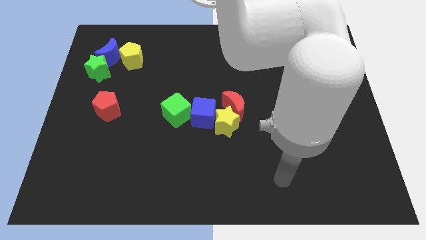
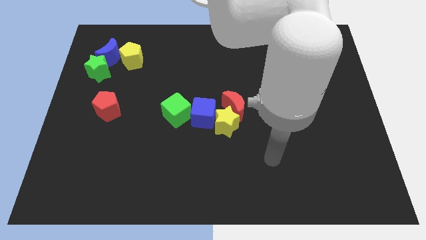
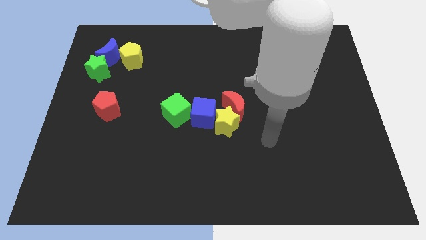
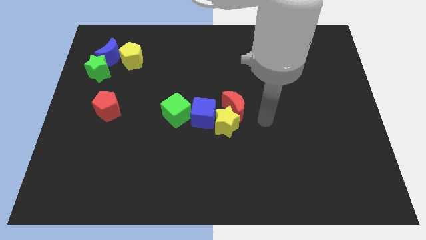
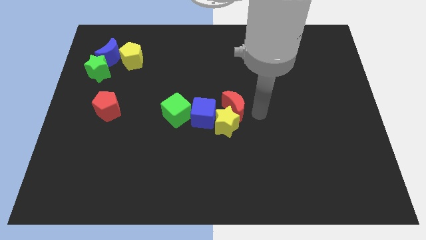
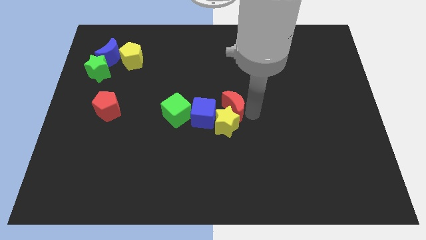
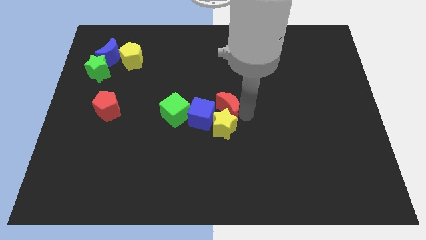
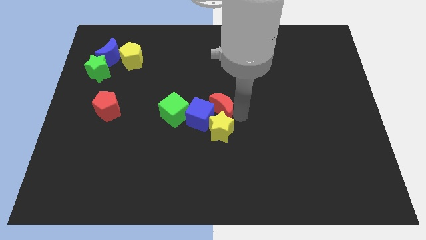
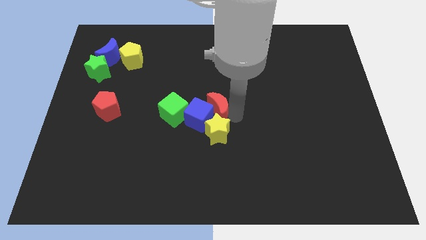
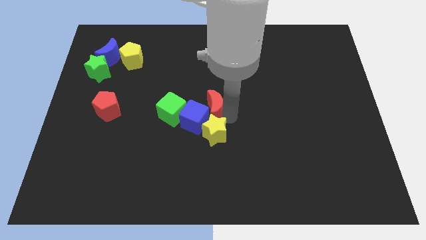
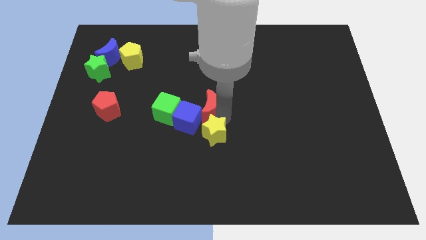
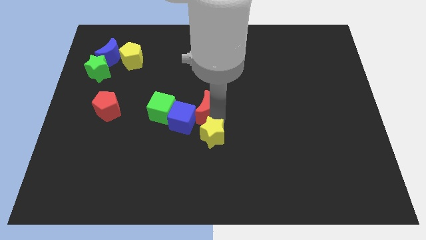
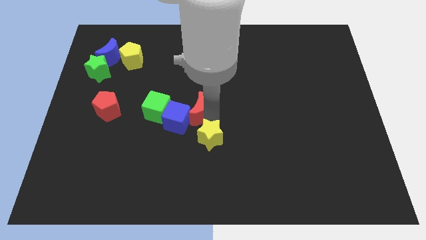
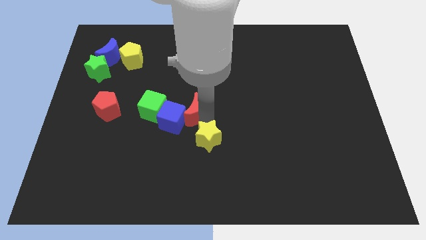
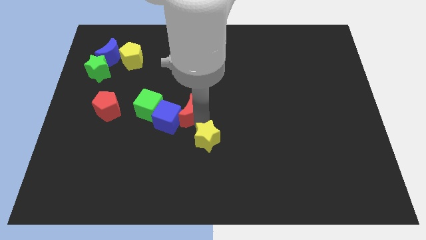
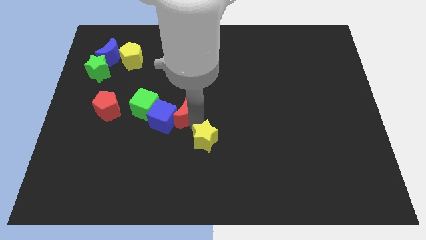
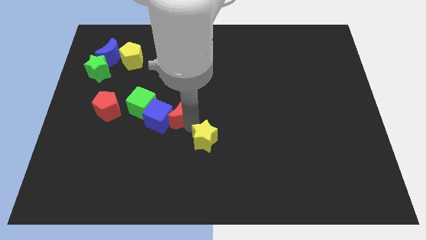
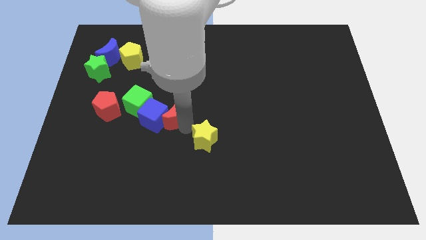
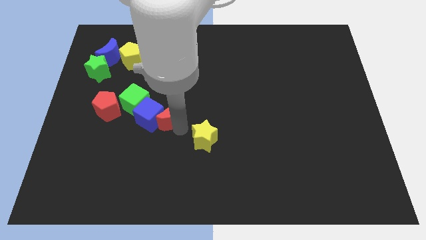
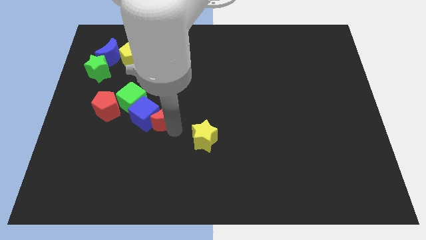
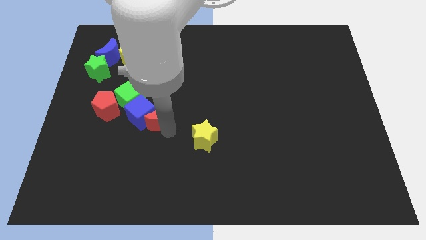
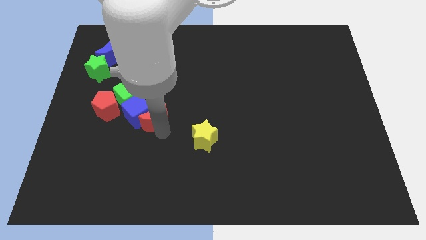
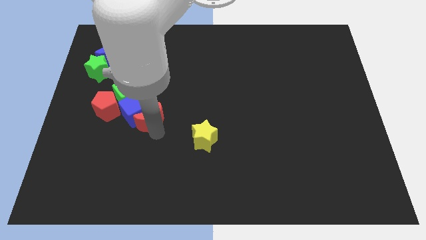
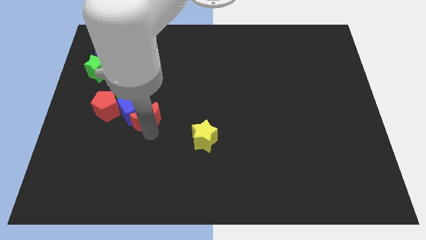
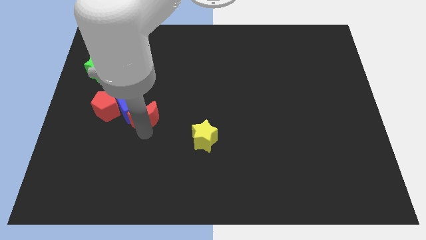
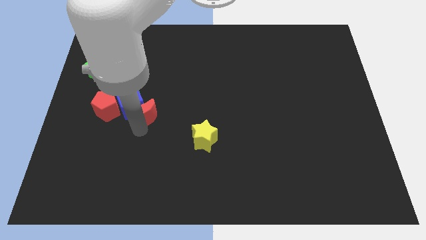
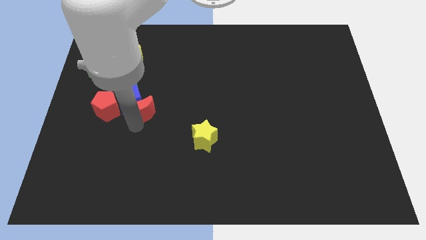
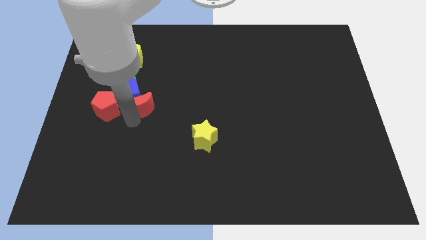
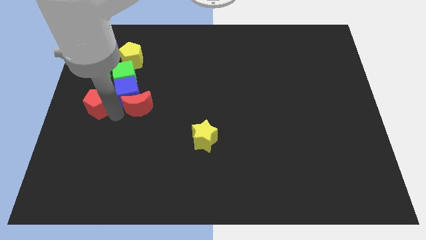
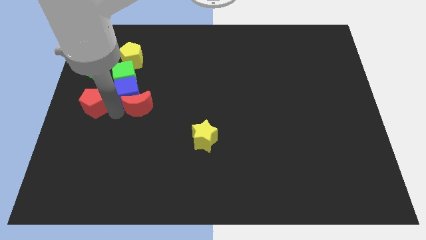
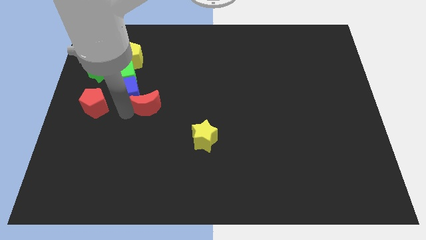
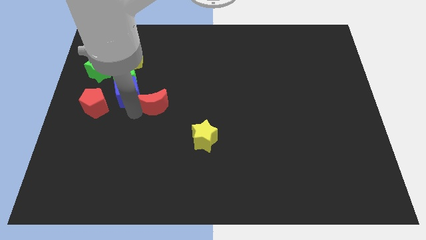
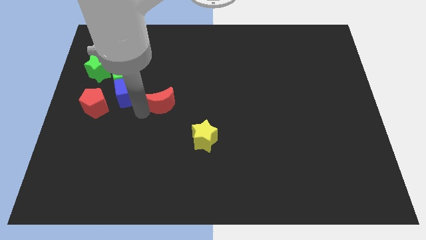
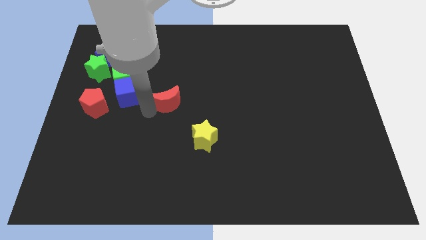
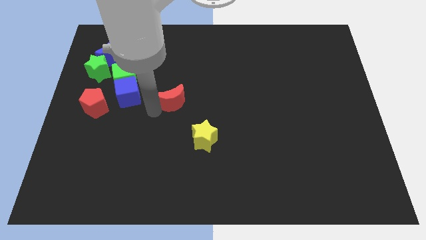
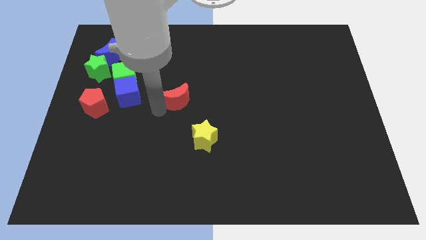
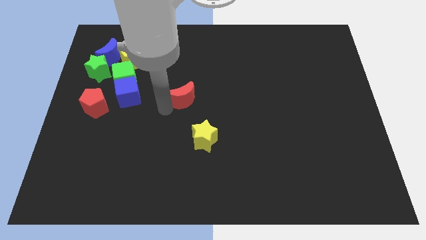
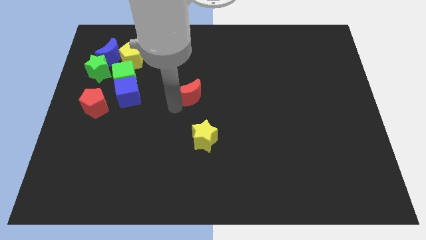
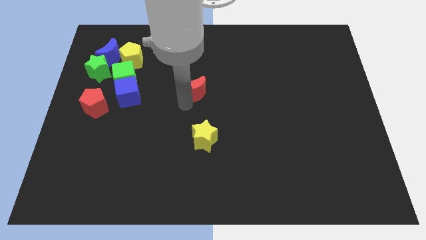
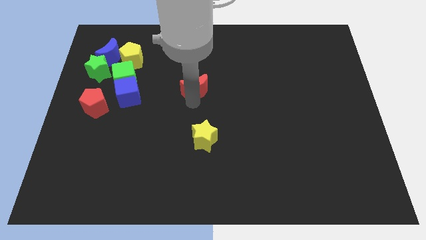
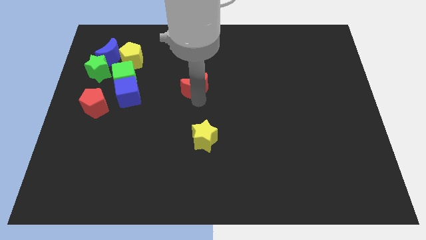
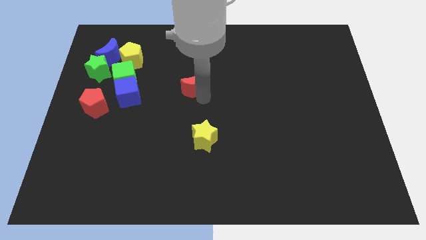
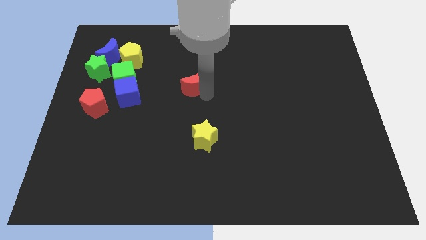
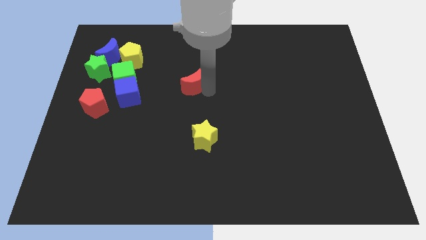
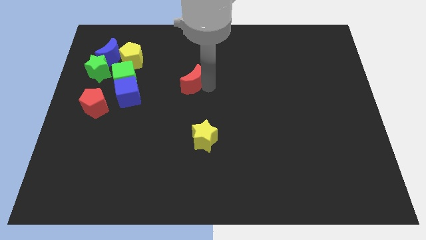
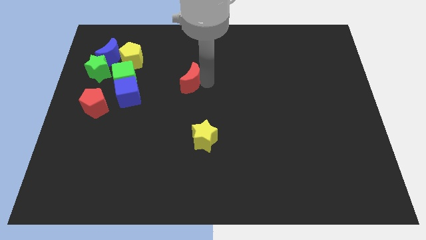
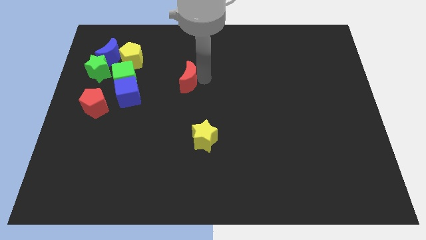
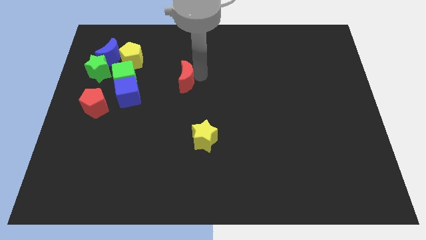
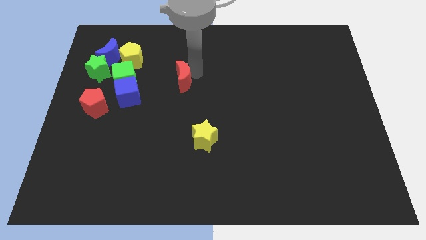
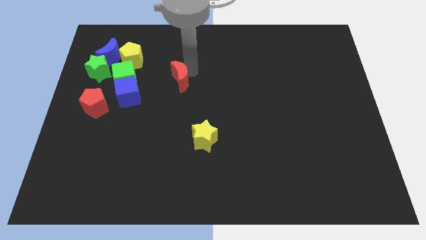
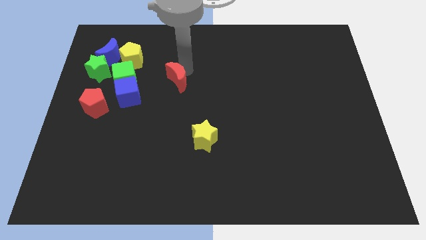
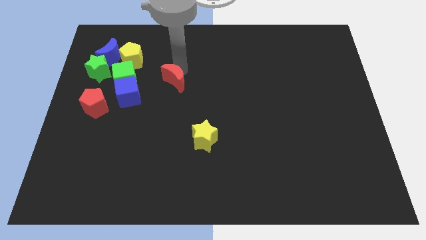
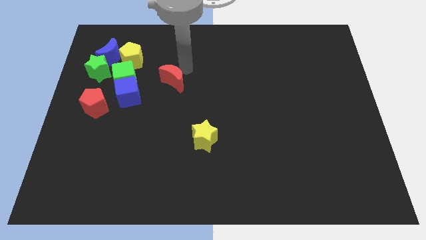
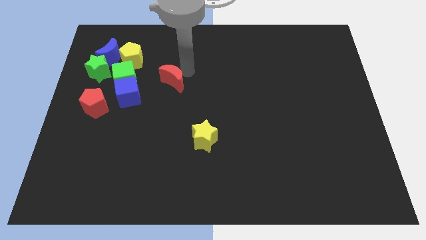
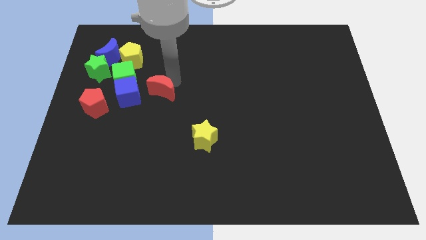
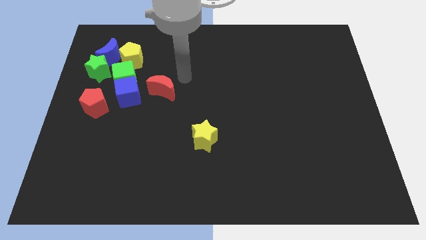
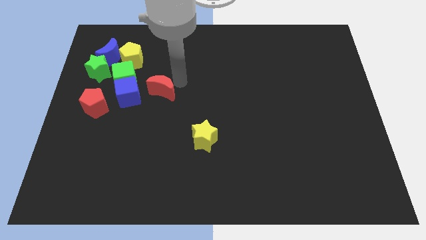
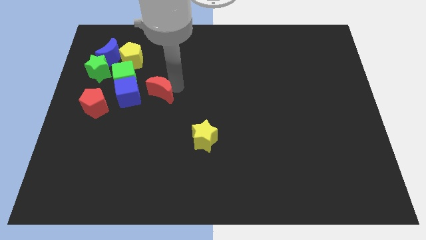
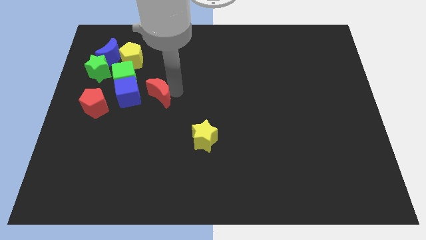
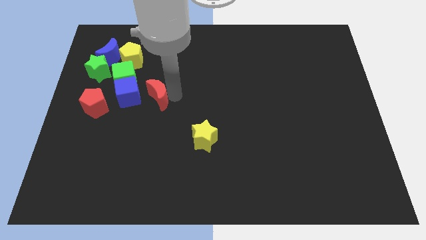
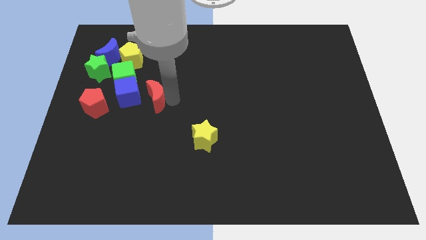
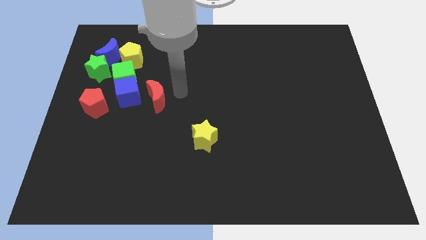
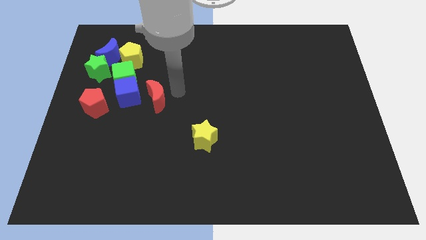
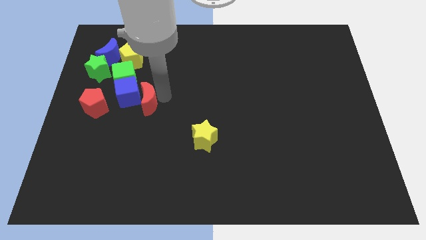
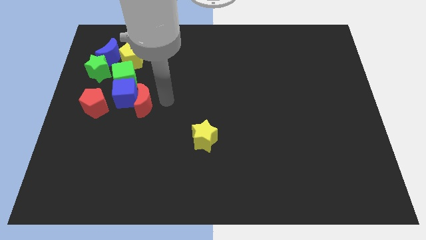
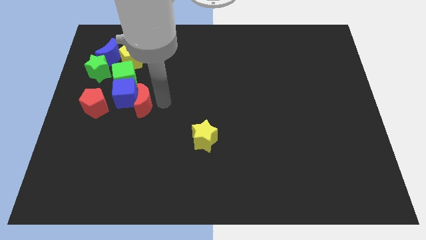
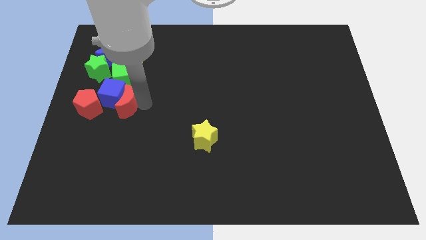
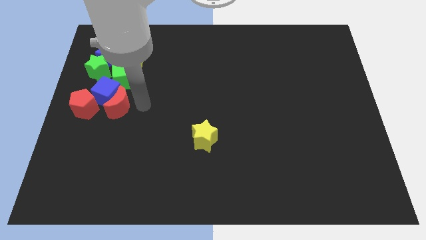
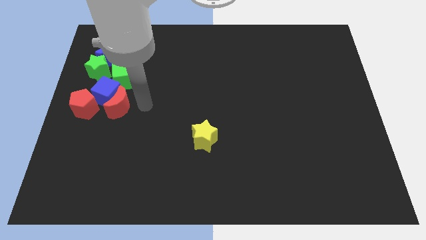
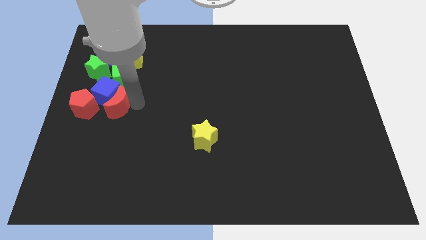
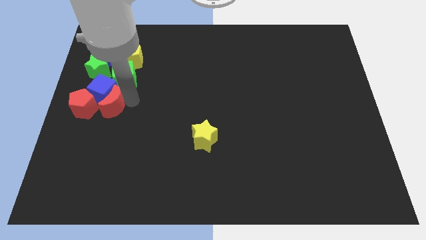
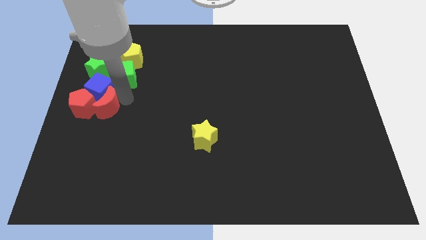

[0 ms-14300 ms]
push the red moon to the red pentagon

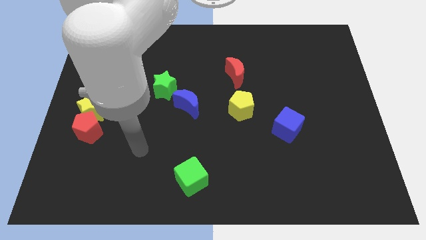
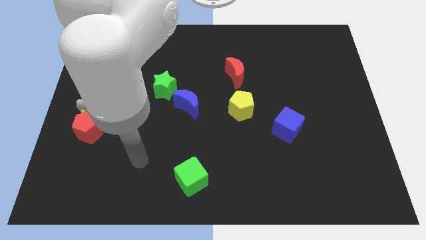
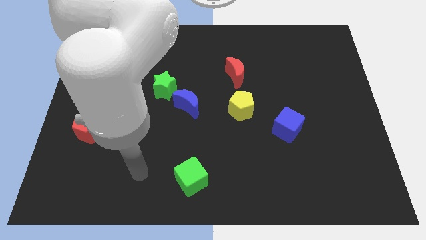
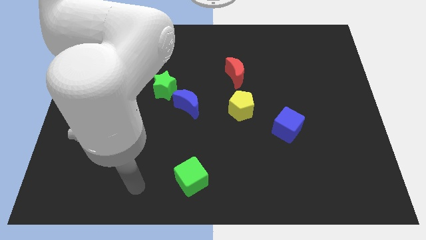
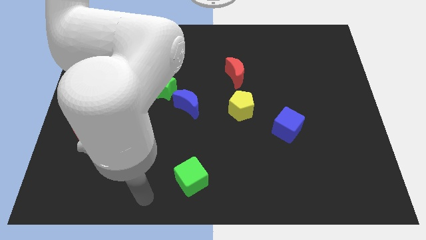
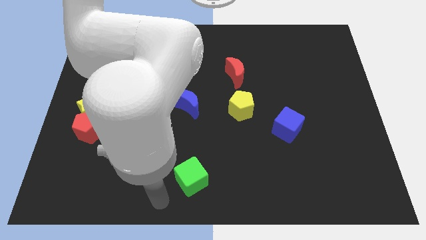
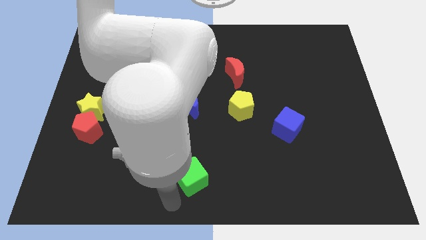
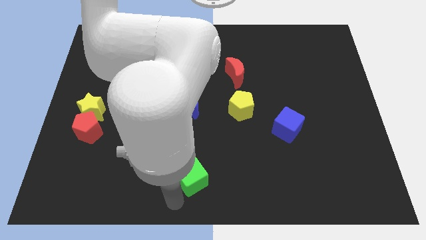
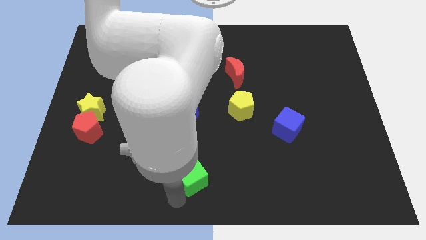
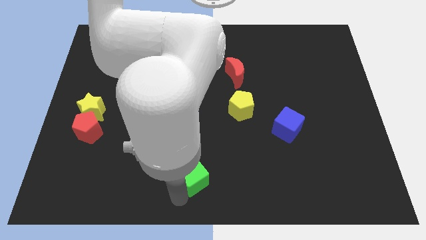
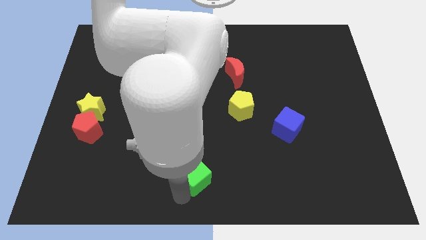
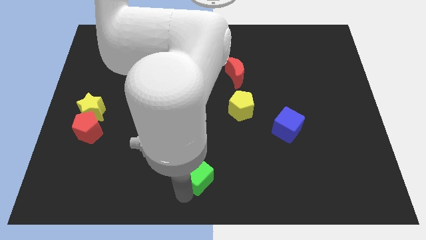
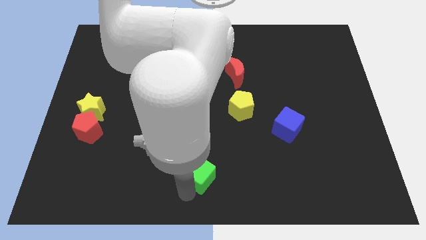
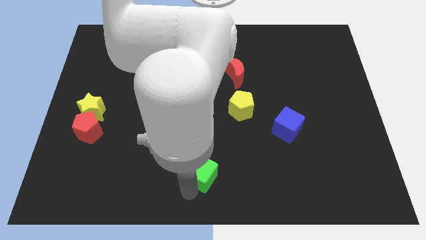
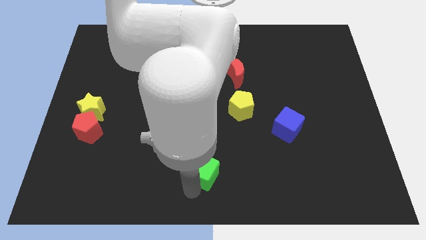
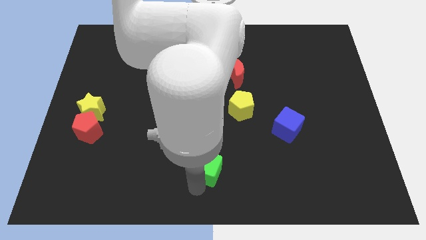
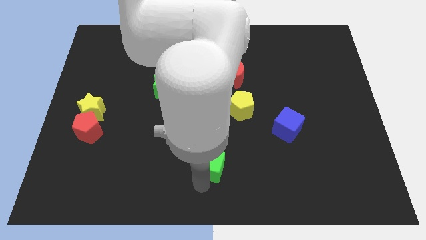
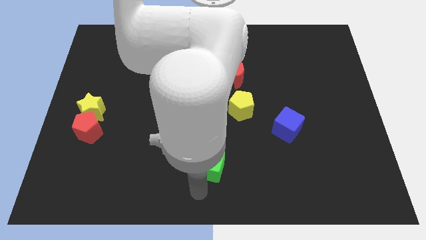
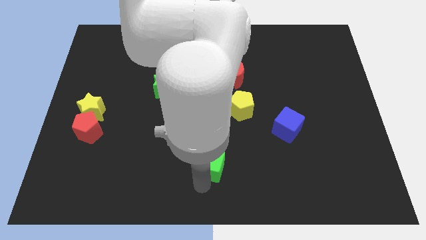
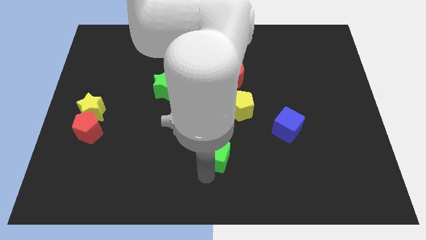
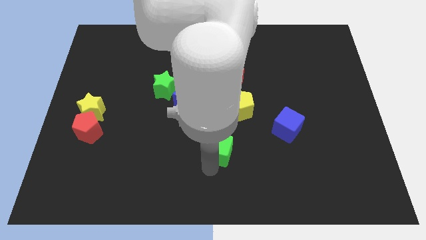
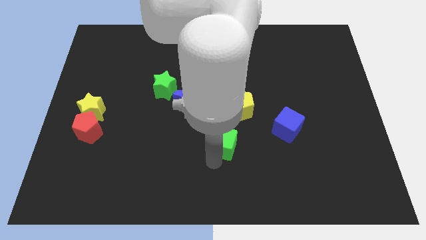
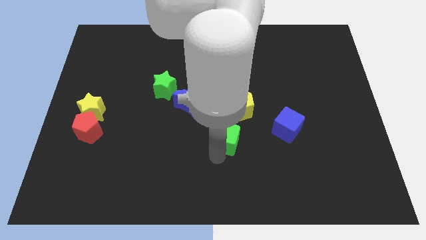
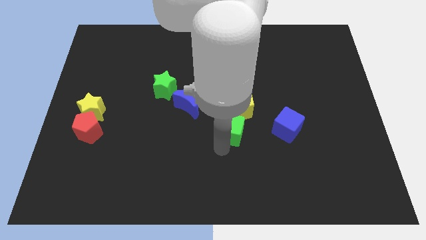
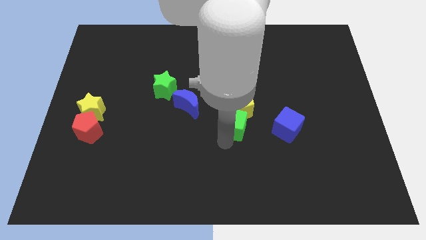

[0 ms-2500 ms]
move the green cube close to the yellow pentagon
